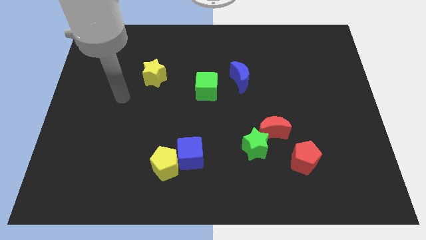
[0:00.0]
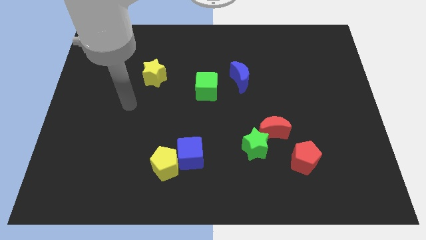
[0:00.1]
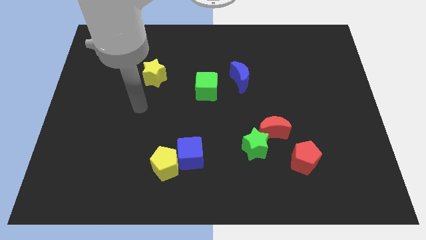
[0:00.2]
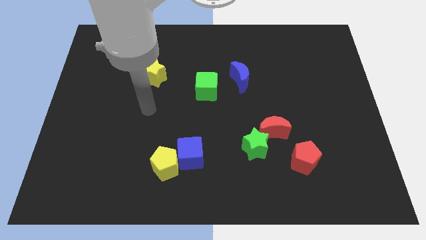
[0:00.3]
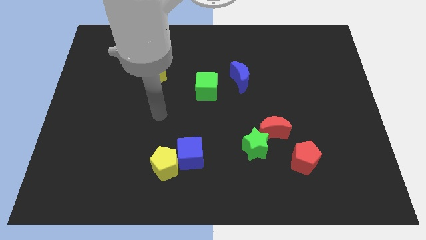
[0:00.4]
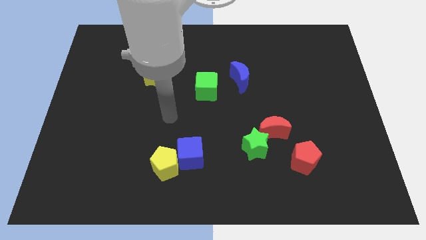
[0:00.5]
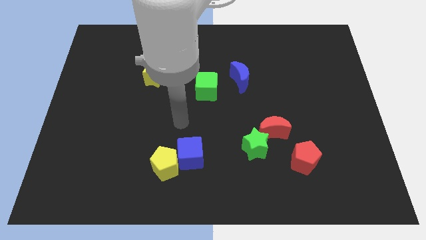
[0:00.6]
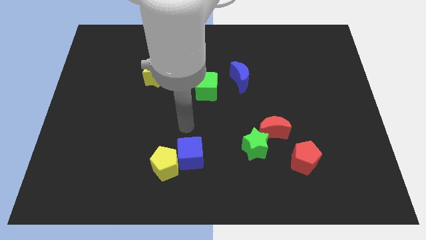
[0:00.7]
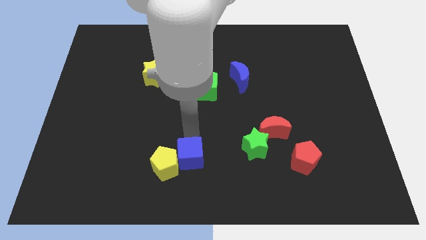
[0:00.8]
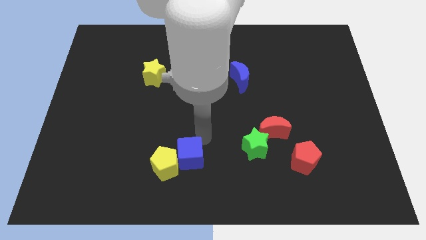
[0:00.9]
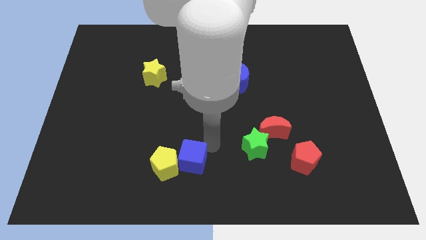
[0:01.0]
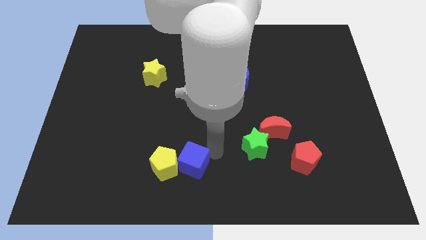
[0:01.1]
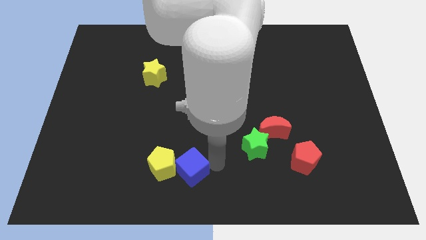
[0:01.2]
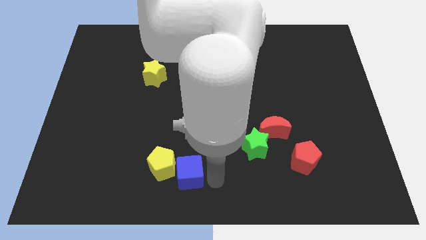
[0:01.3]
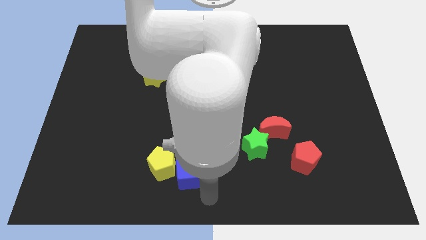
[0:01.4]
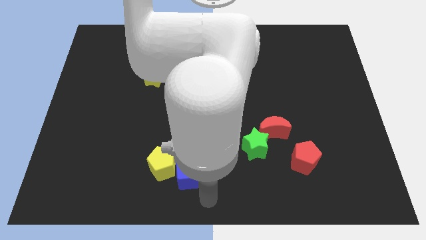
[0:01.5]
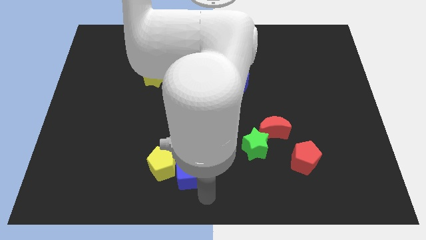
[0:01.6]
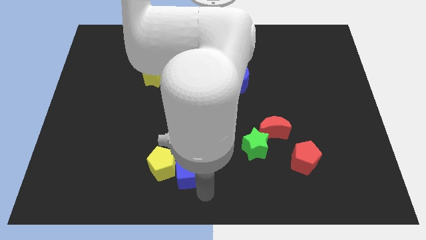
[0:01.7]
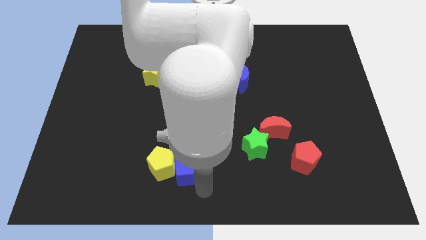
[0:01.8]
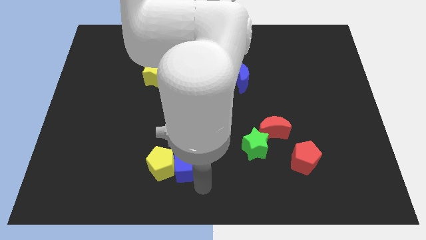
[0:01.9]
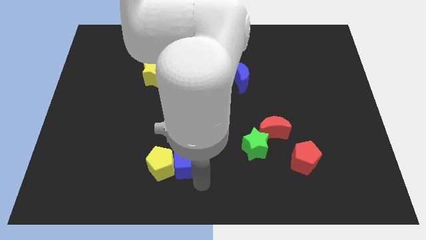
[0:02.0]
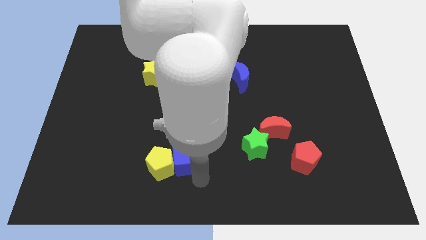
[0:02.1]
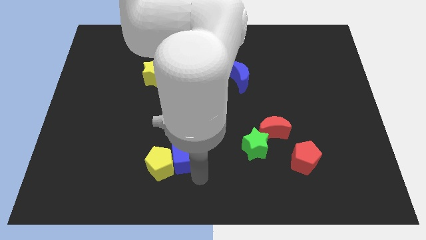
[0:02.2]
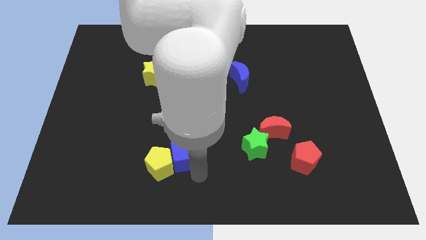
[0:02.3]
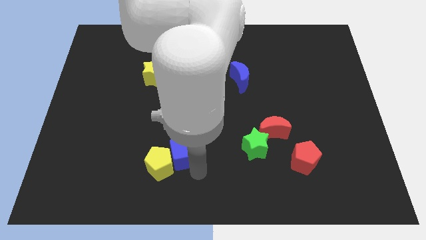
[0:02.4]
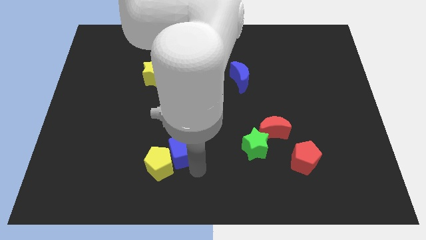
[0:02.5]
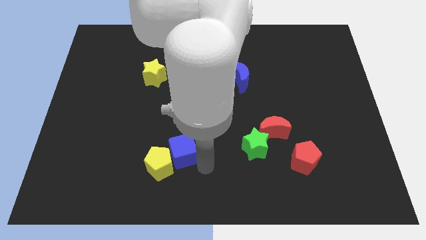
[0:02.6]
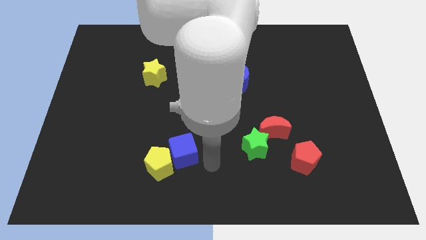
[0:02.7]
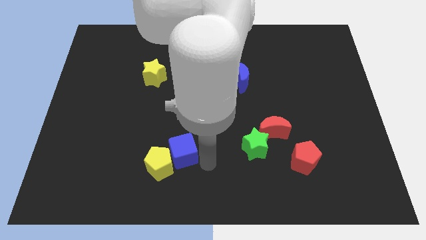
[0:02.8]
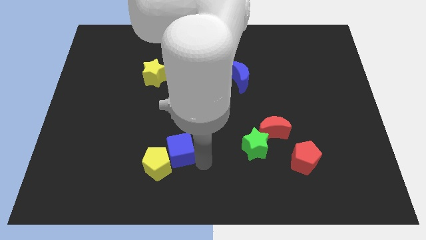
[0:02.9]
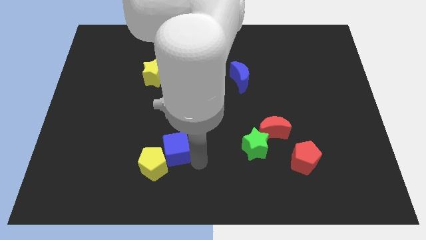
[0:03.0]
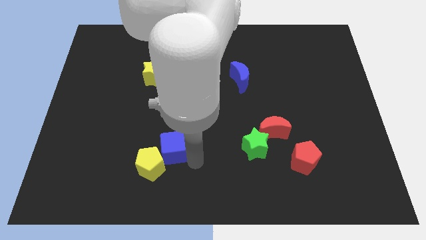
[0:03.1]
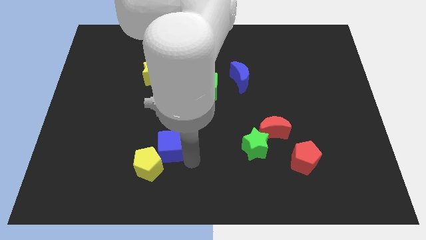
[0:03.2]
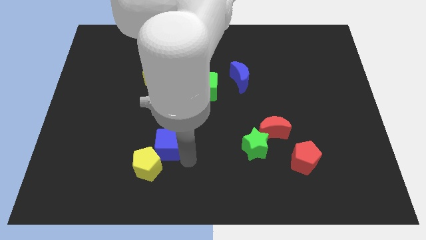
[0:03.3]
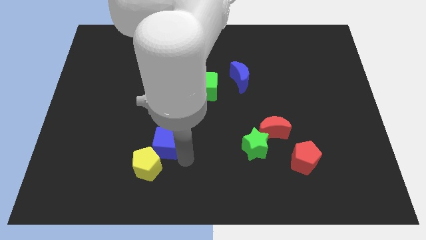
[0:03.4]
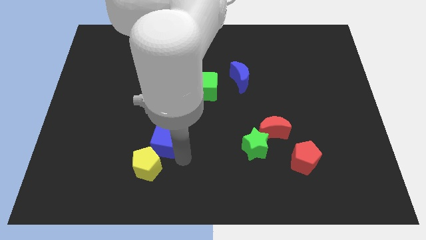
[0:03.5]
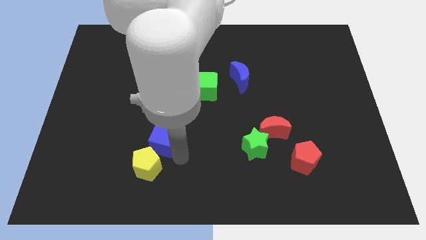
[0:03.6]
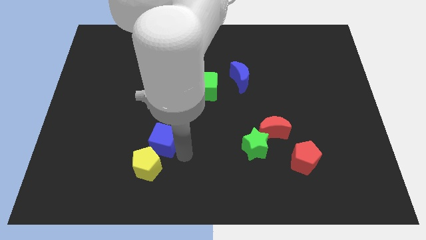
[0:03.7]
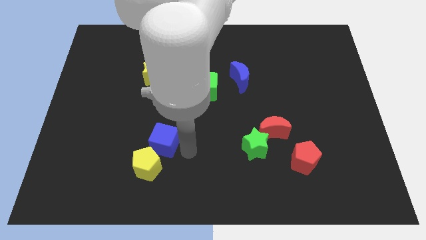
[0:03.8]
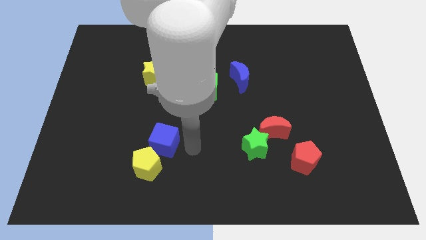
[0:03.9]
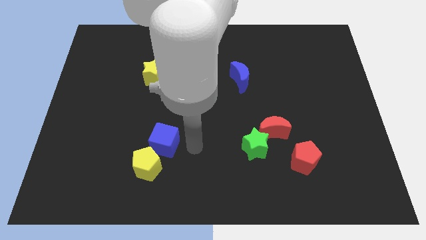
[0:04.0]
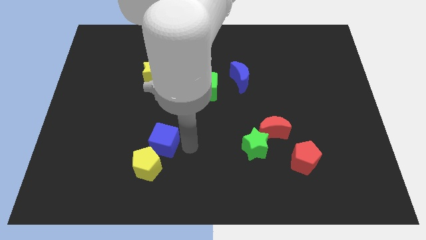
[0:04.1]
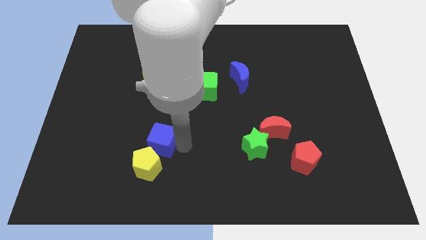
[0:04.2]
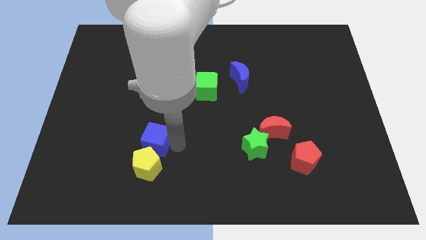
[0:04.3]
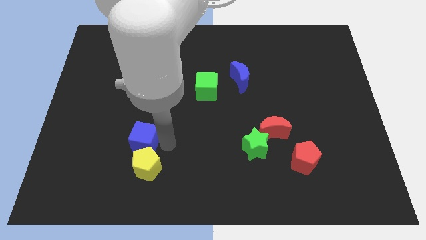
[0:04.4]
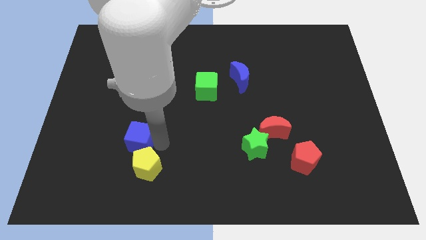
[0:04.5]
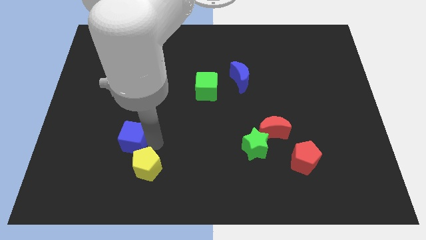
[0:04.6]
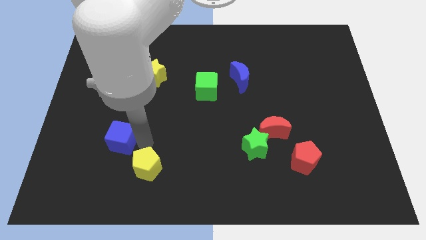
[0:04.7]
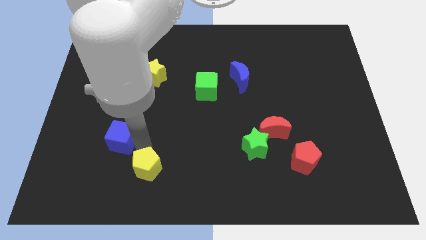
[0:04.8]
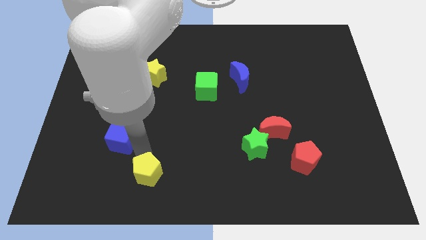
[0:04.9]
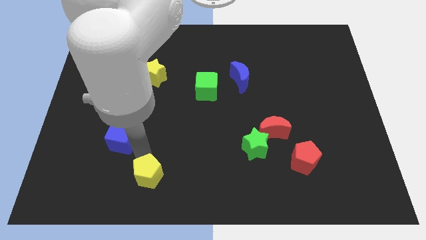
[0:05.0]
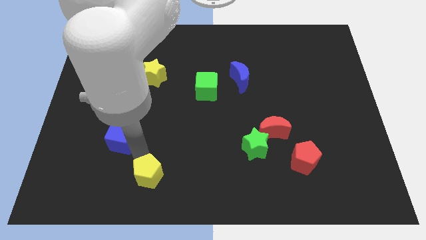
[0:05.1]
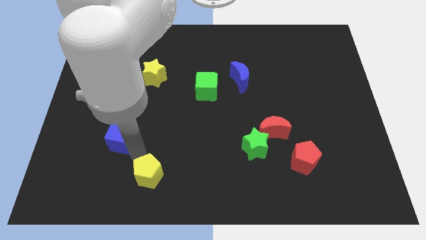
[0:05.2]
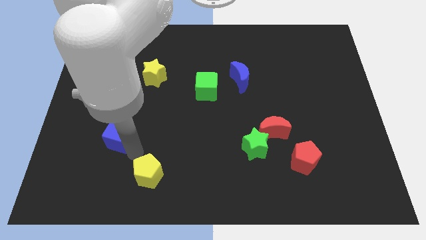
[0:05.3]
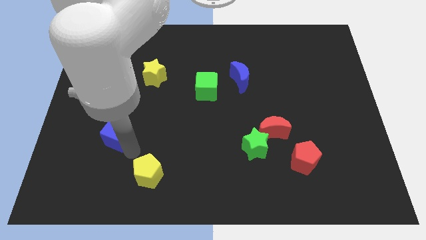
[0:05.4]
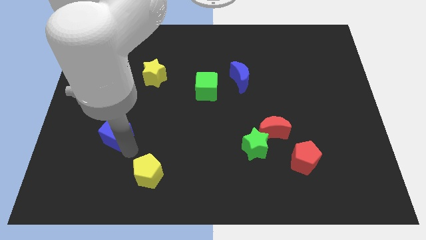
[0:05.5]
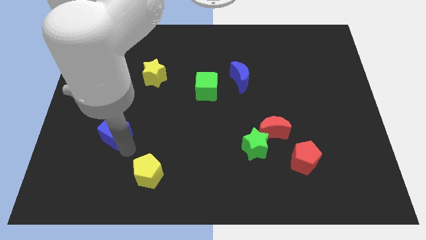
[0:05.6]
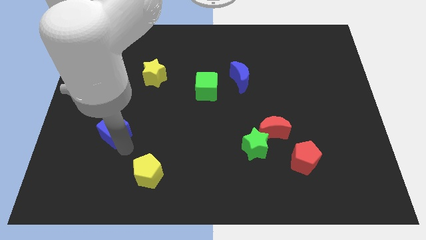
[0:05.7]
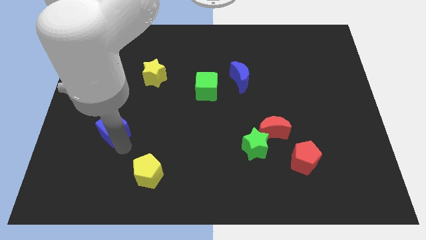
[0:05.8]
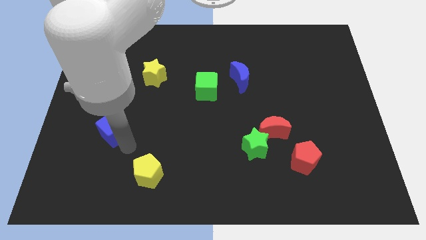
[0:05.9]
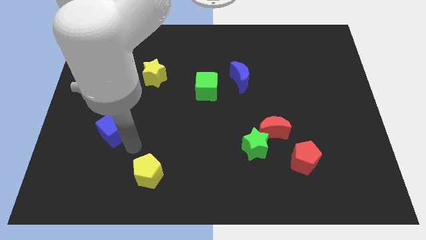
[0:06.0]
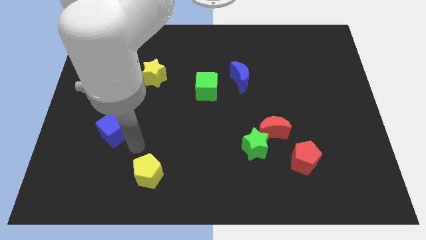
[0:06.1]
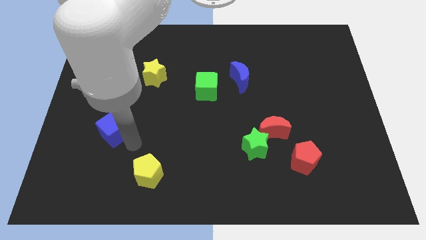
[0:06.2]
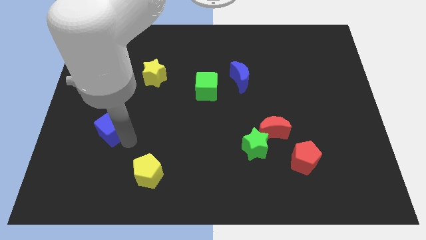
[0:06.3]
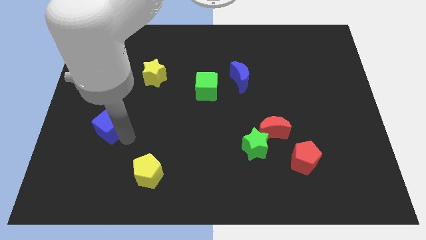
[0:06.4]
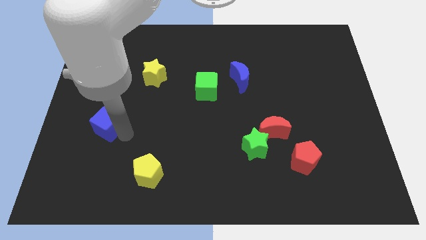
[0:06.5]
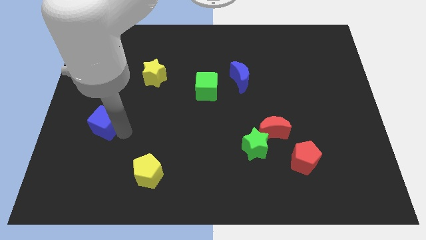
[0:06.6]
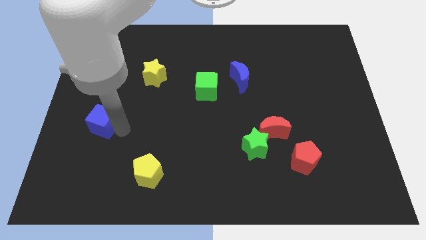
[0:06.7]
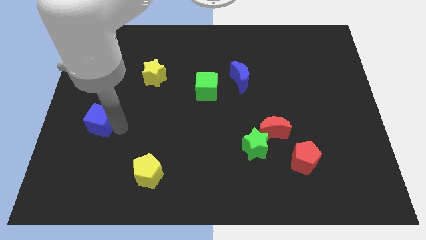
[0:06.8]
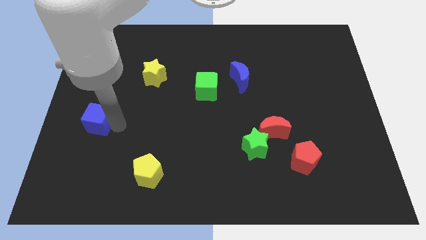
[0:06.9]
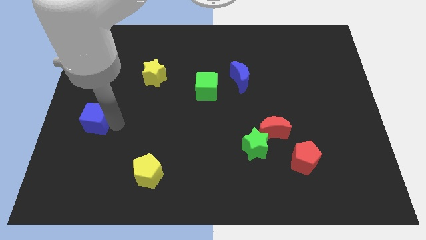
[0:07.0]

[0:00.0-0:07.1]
slide the blue cube to the left side
